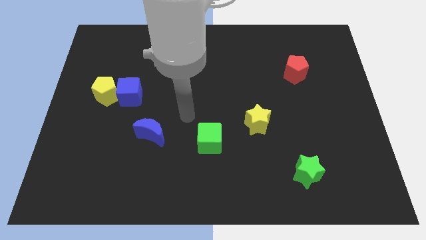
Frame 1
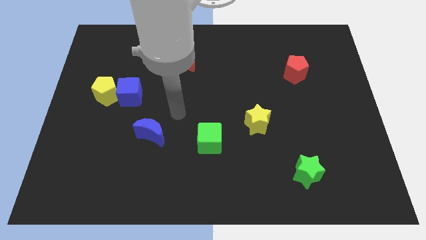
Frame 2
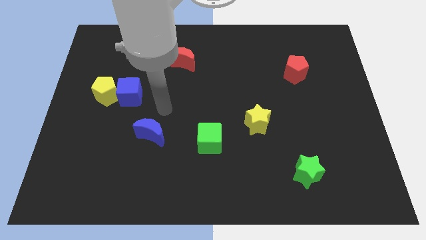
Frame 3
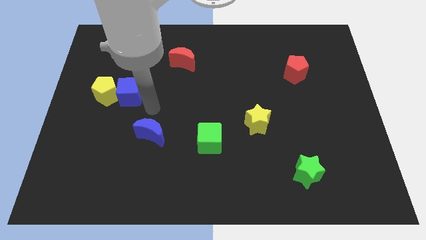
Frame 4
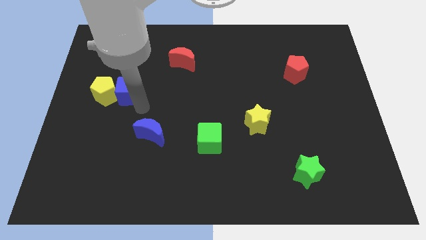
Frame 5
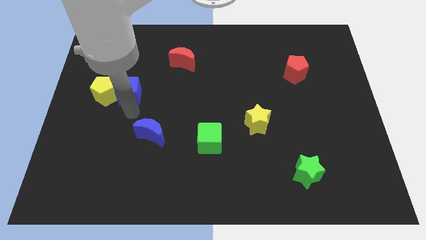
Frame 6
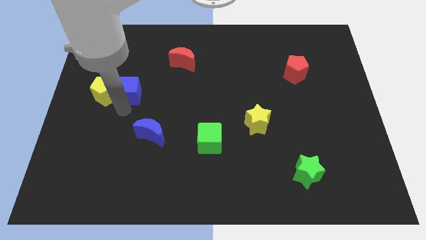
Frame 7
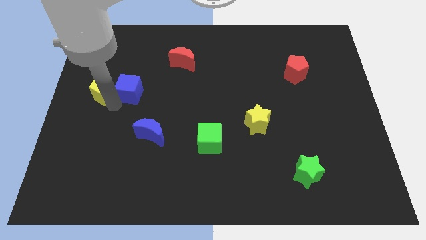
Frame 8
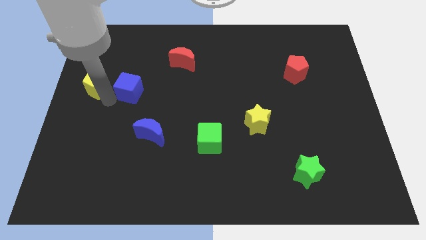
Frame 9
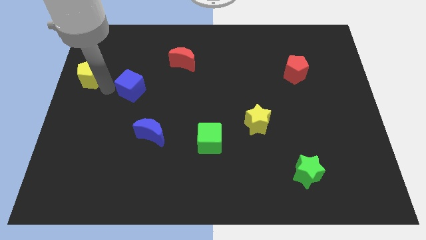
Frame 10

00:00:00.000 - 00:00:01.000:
pull the blue cube apart from the yellow pentagon

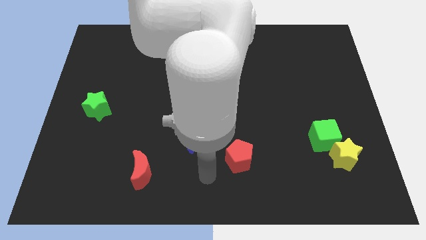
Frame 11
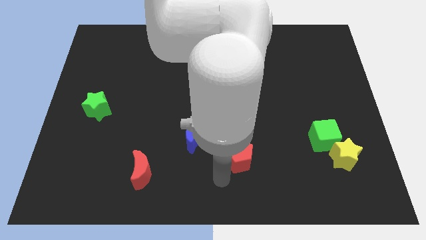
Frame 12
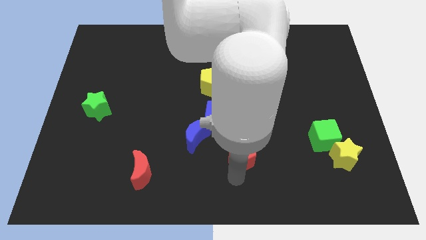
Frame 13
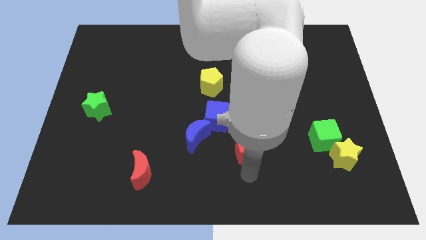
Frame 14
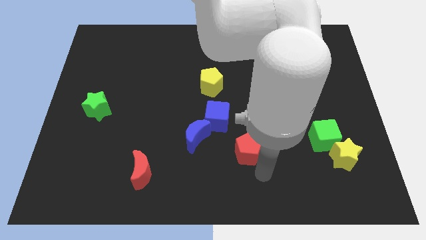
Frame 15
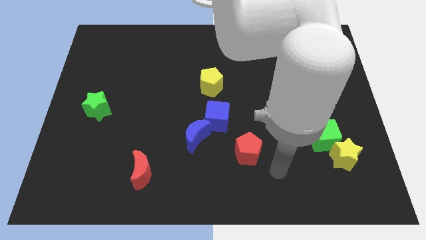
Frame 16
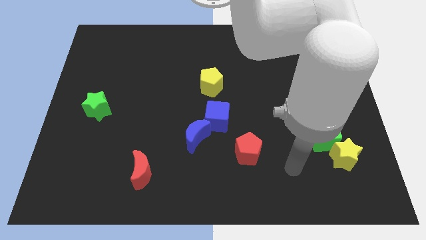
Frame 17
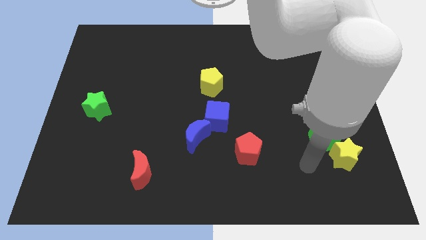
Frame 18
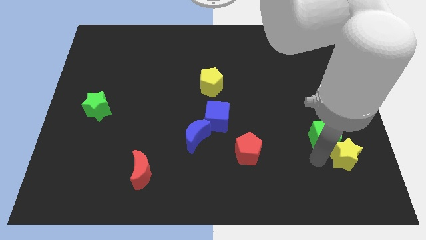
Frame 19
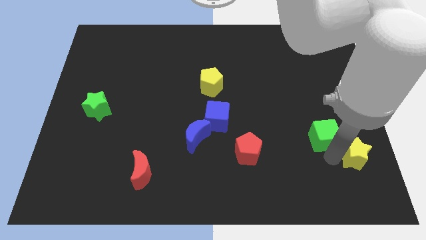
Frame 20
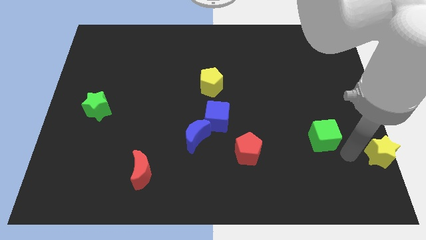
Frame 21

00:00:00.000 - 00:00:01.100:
pull the green cube apart from the yellow star

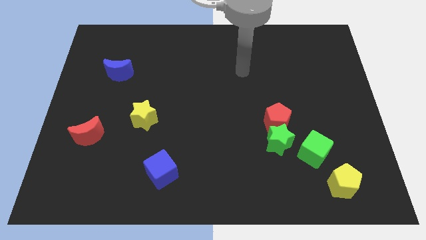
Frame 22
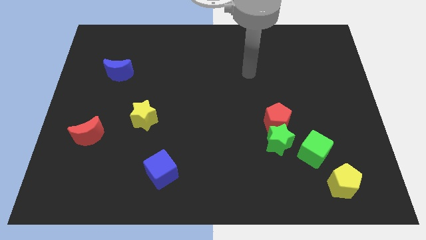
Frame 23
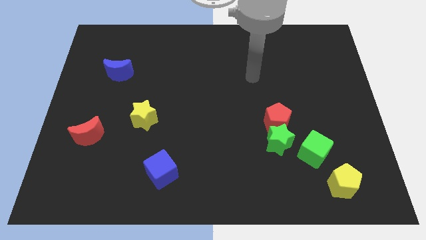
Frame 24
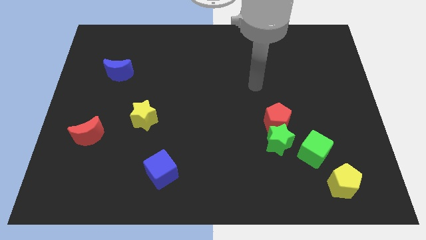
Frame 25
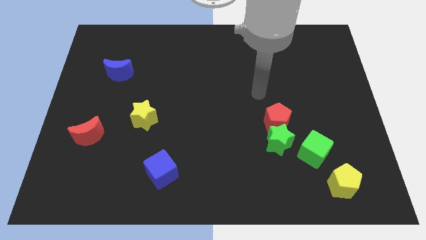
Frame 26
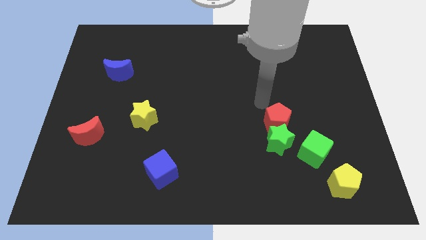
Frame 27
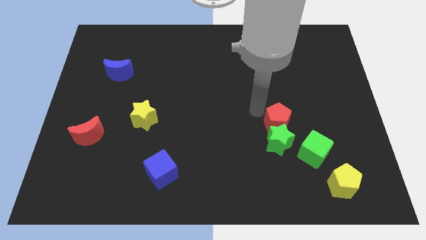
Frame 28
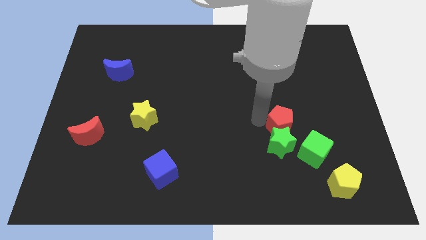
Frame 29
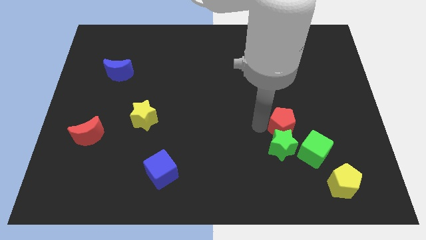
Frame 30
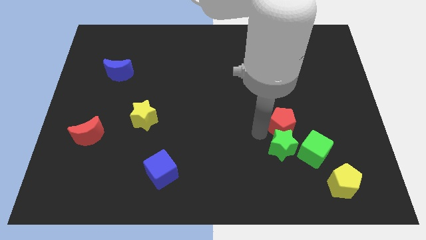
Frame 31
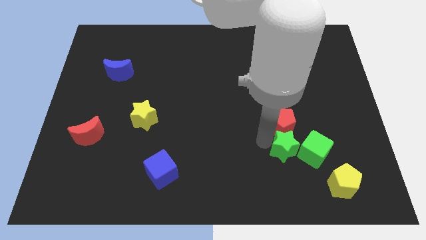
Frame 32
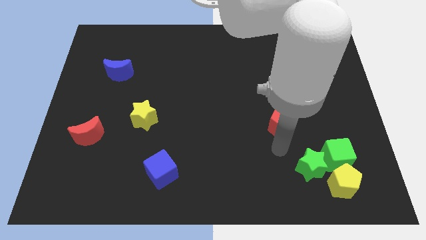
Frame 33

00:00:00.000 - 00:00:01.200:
pull the red pentagon apart from the green star

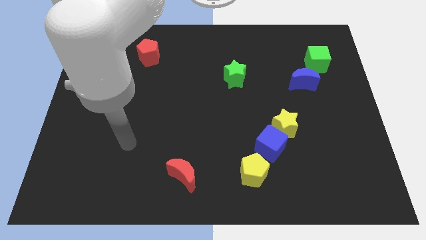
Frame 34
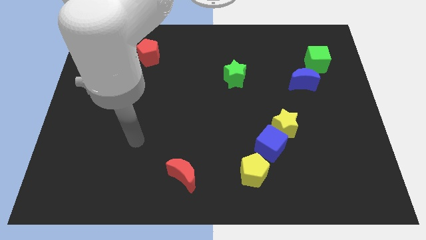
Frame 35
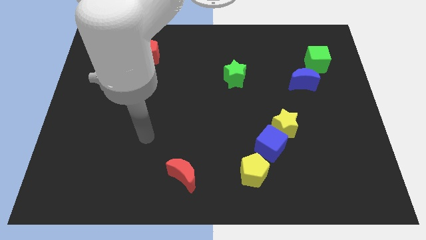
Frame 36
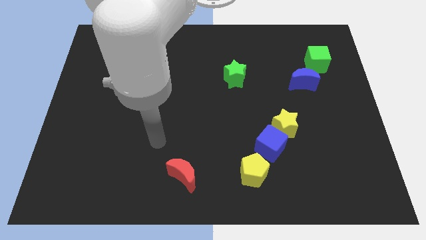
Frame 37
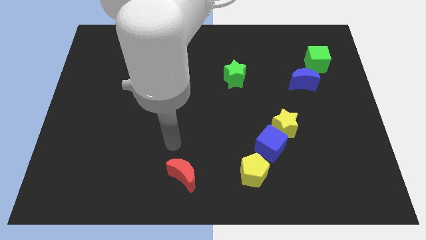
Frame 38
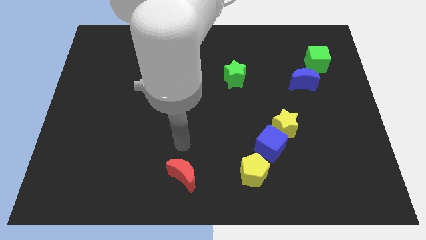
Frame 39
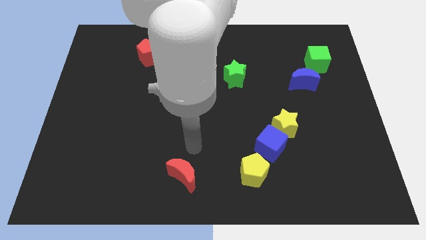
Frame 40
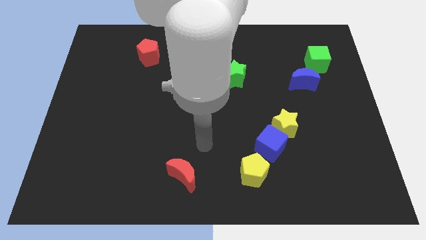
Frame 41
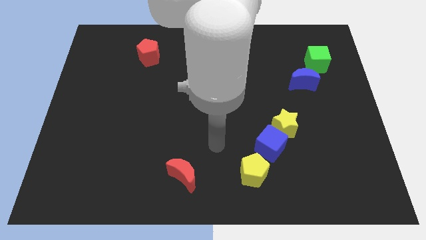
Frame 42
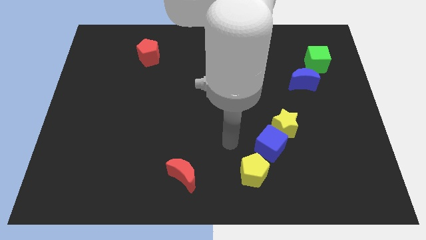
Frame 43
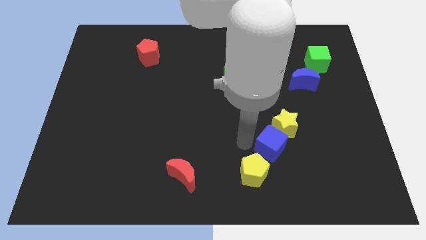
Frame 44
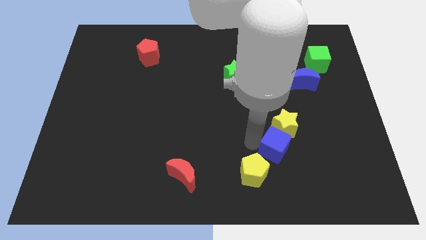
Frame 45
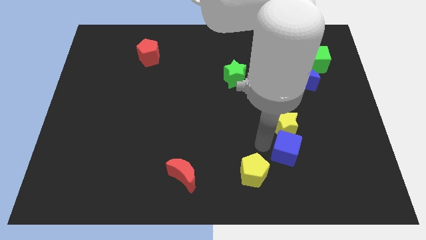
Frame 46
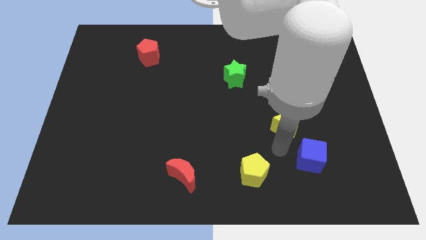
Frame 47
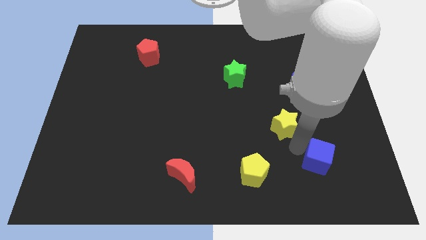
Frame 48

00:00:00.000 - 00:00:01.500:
pull the yellow star apart from the blue cube

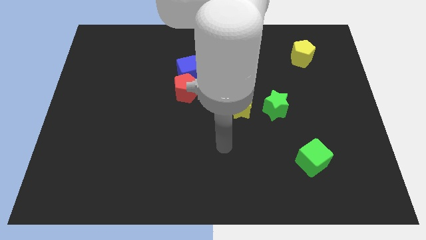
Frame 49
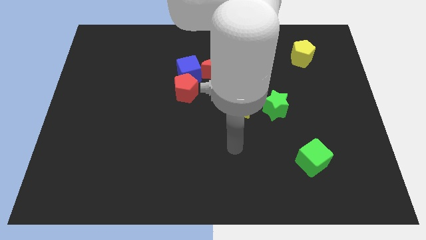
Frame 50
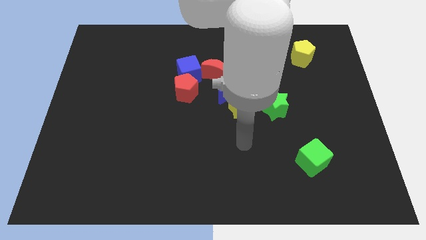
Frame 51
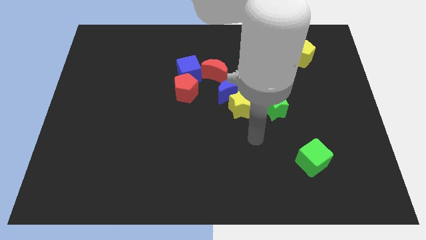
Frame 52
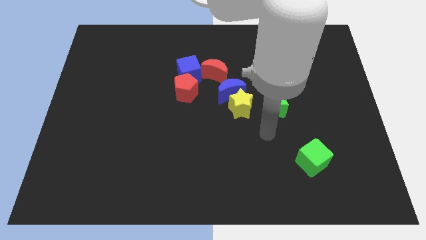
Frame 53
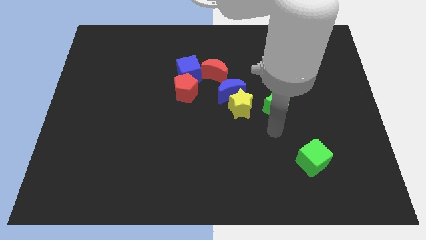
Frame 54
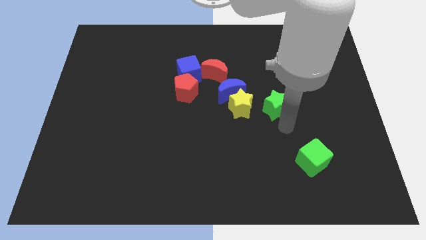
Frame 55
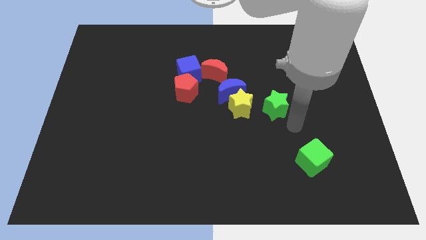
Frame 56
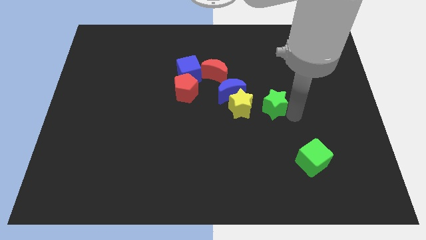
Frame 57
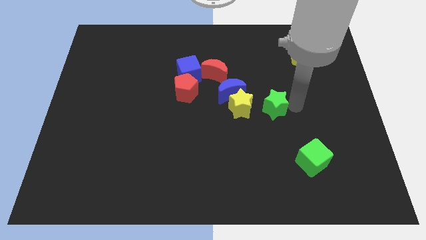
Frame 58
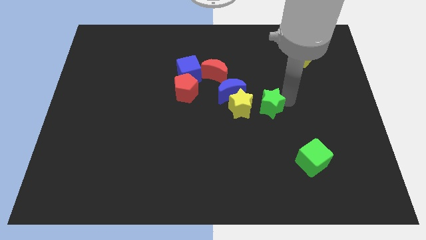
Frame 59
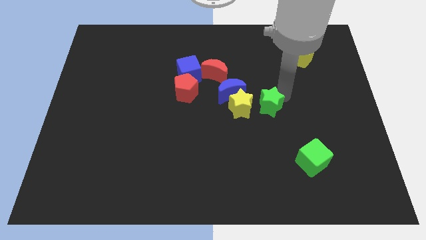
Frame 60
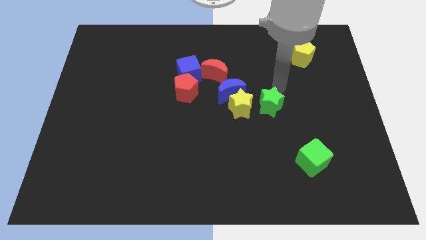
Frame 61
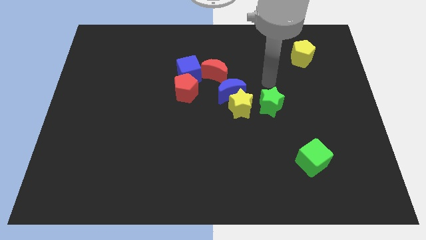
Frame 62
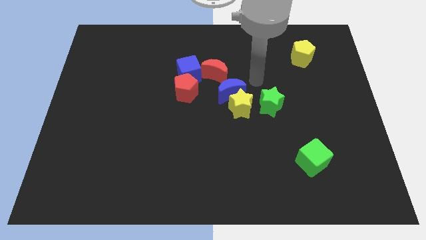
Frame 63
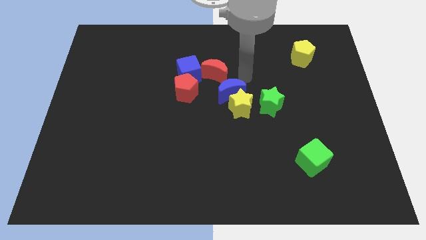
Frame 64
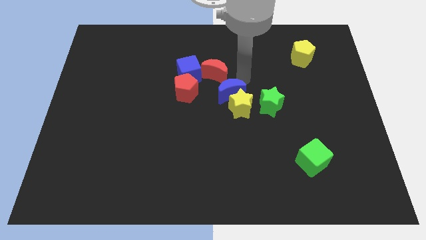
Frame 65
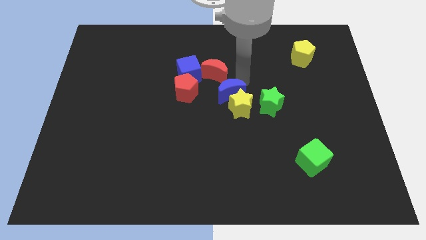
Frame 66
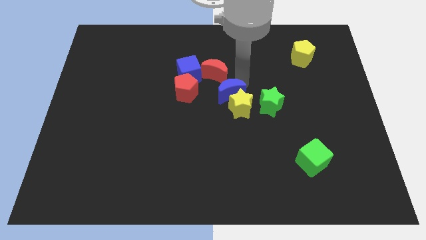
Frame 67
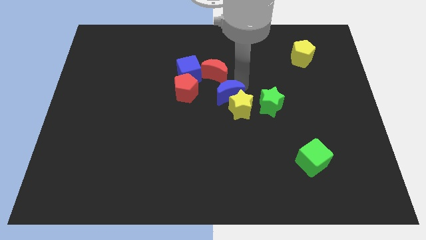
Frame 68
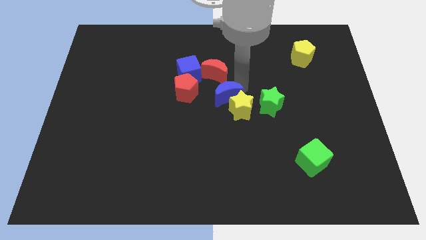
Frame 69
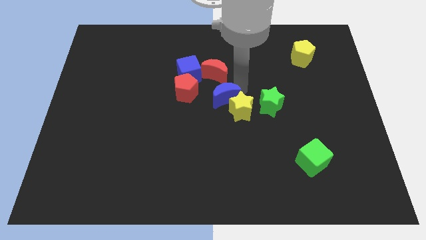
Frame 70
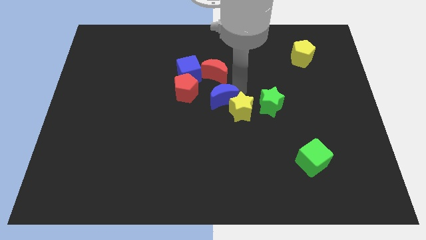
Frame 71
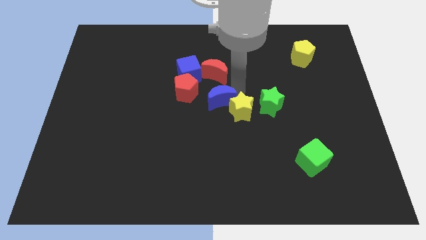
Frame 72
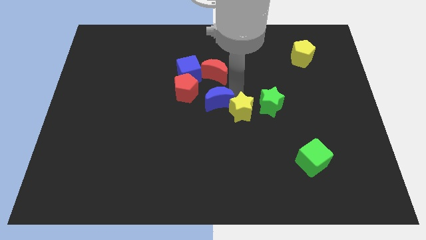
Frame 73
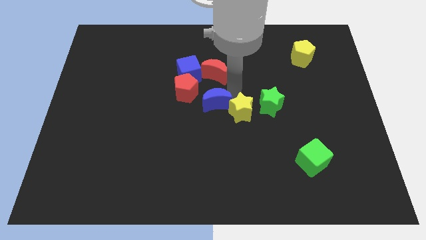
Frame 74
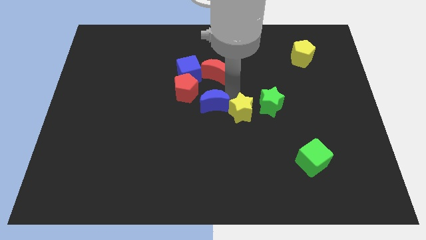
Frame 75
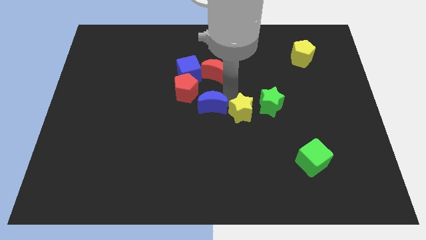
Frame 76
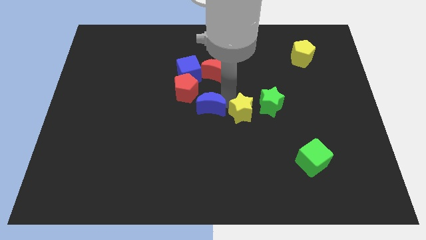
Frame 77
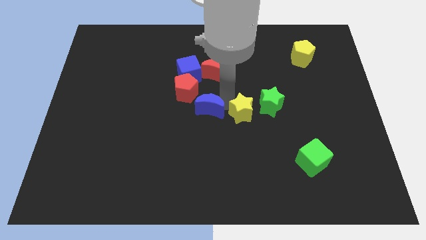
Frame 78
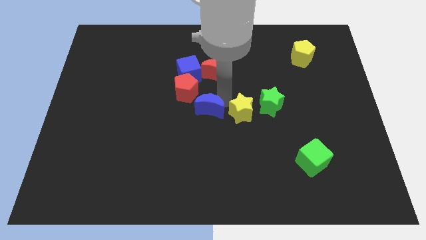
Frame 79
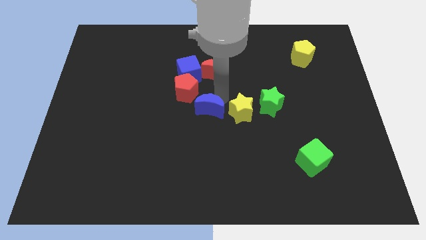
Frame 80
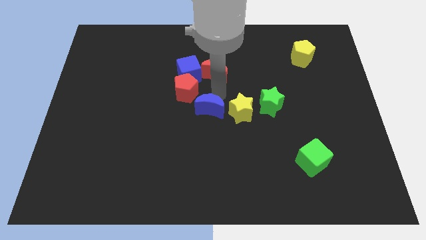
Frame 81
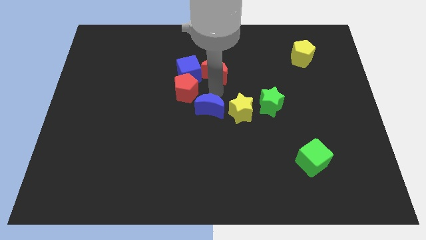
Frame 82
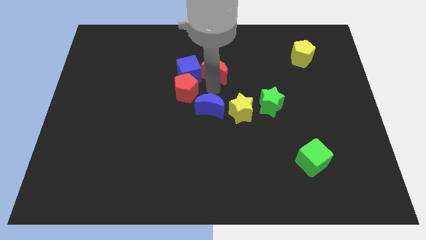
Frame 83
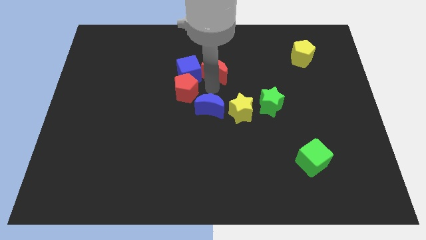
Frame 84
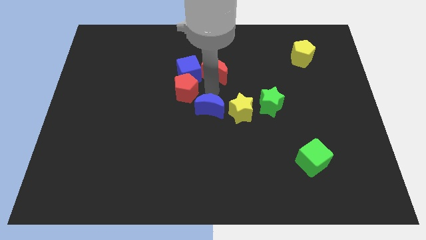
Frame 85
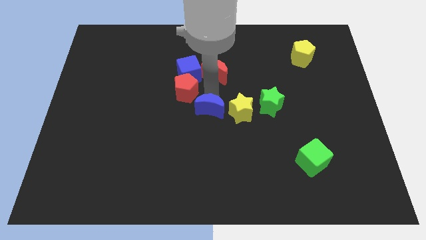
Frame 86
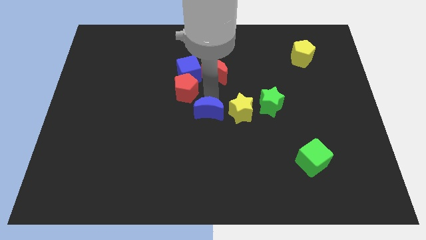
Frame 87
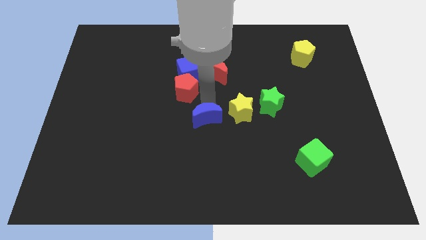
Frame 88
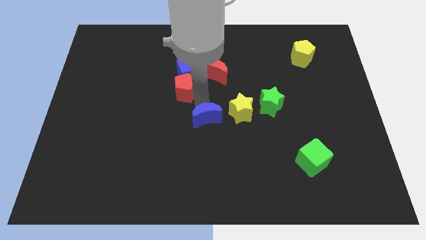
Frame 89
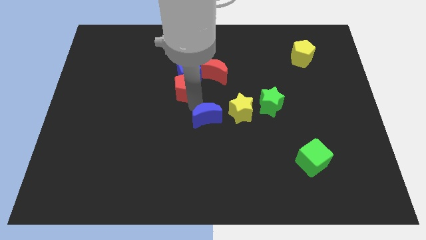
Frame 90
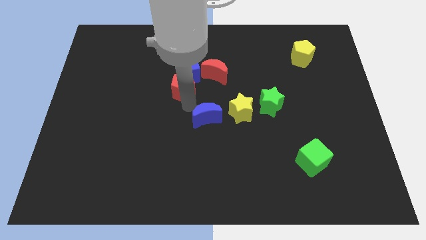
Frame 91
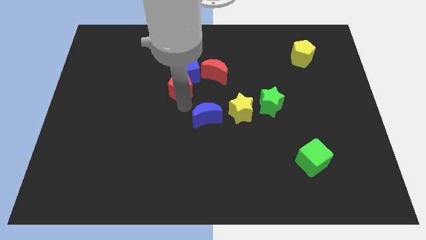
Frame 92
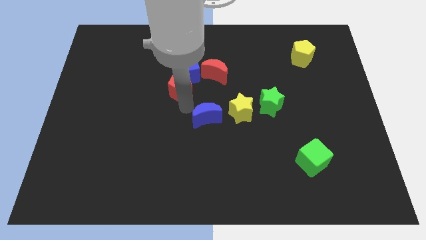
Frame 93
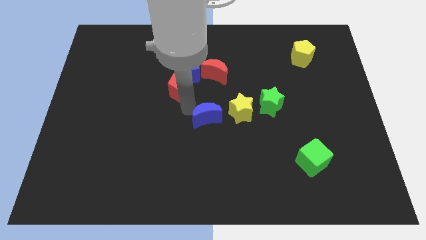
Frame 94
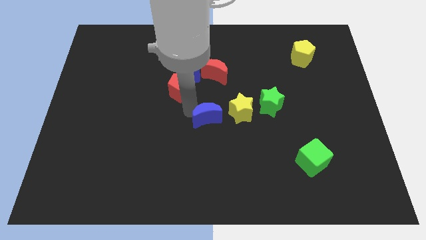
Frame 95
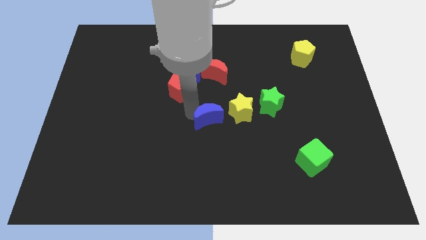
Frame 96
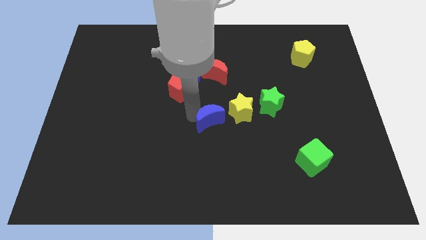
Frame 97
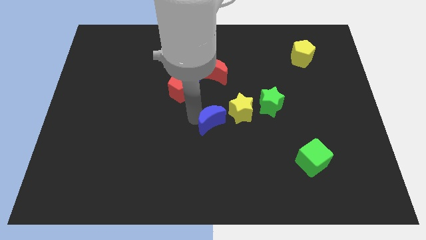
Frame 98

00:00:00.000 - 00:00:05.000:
move the blue moon away from the yellow star and red moon
